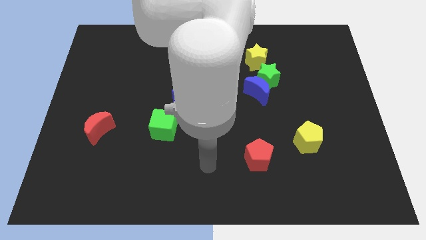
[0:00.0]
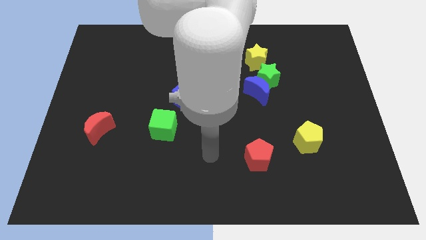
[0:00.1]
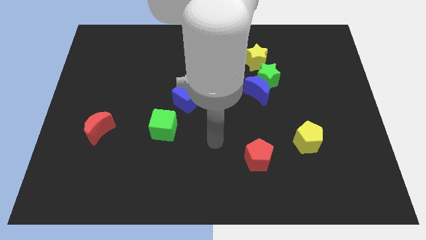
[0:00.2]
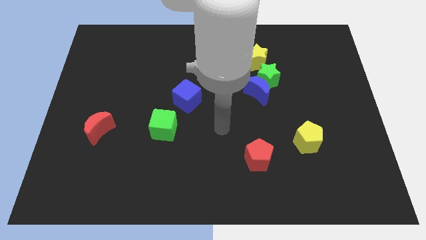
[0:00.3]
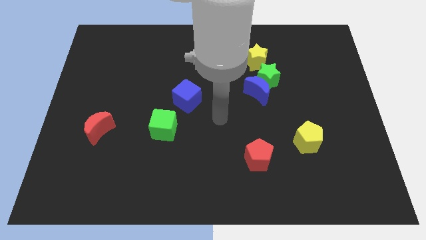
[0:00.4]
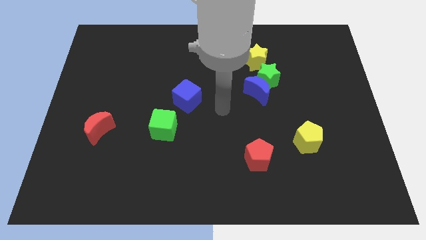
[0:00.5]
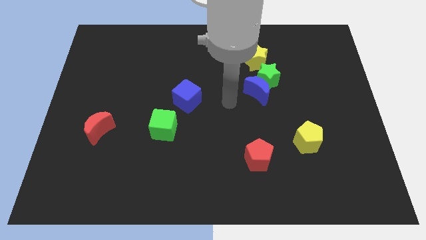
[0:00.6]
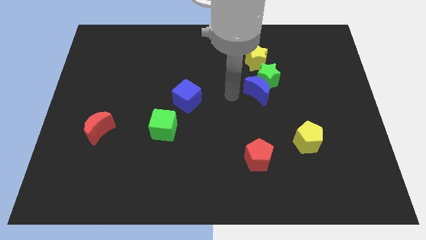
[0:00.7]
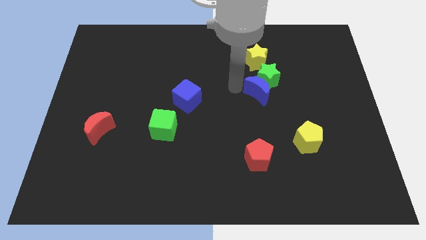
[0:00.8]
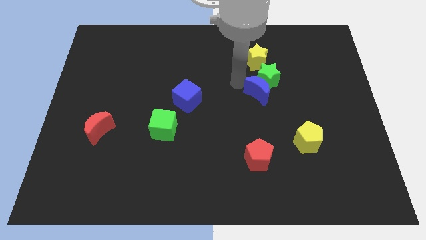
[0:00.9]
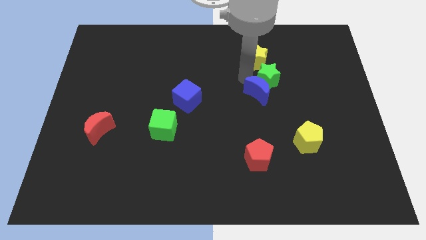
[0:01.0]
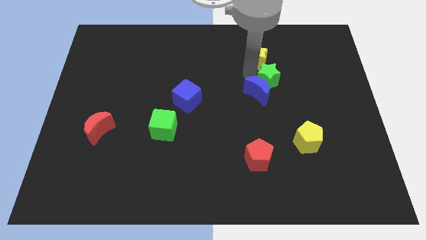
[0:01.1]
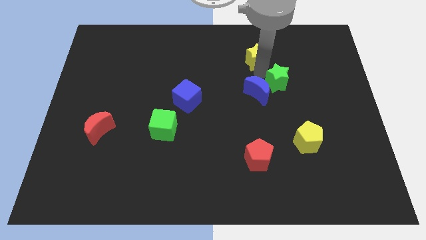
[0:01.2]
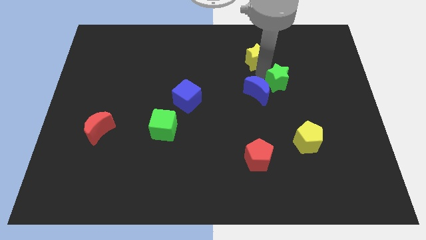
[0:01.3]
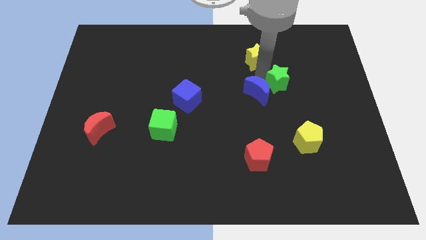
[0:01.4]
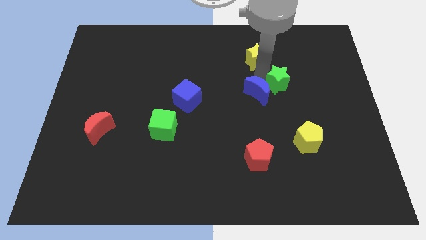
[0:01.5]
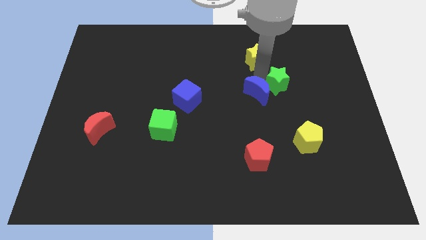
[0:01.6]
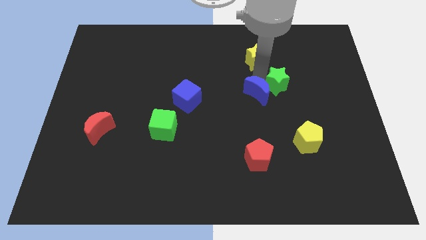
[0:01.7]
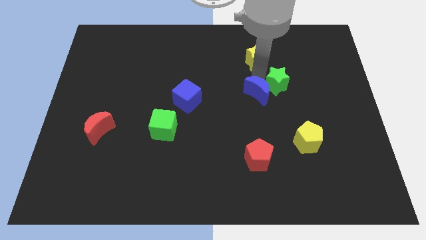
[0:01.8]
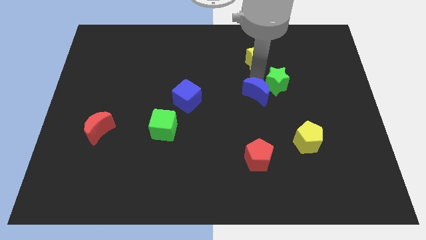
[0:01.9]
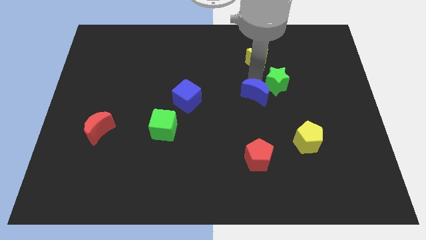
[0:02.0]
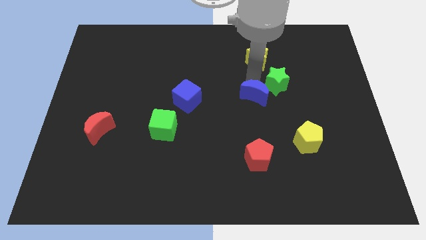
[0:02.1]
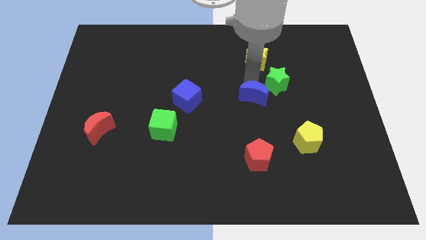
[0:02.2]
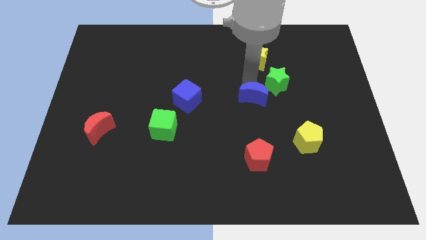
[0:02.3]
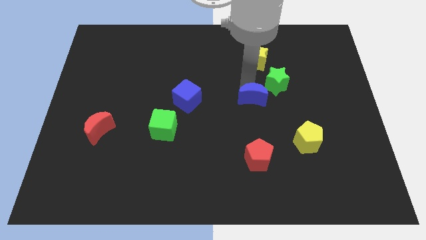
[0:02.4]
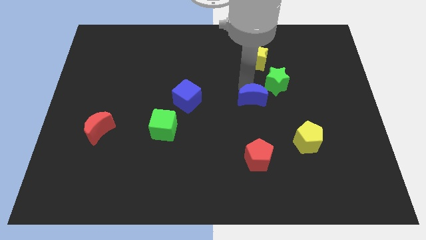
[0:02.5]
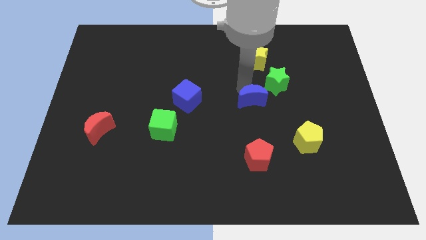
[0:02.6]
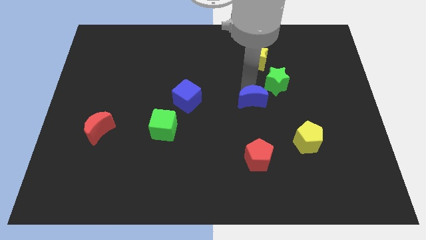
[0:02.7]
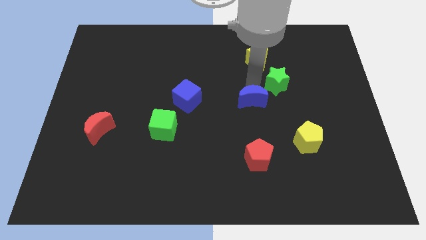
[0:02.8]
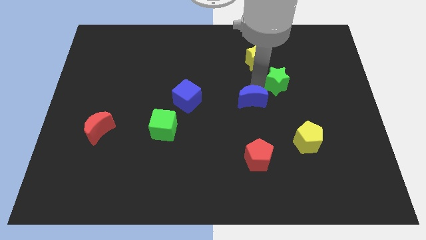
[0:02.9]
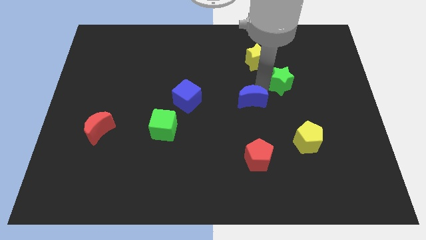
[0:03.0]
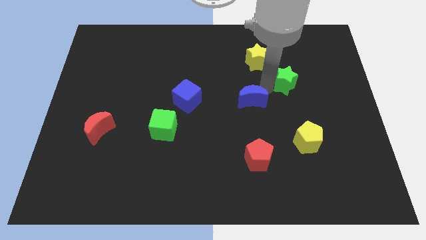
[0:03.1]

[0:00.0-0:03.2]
move the blue moon away from the green star

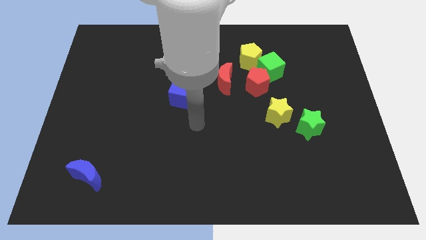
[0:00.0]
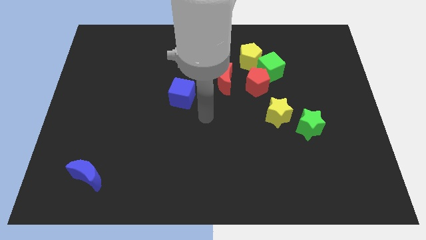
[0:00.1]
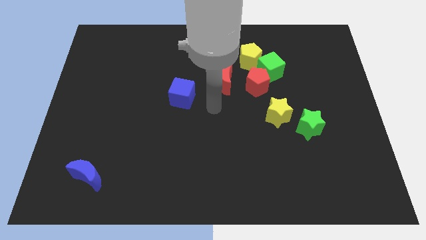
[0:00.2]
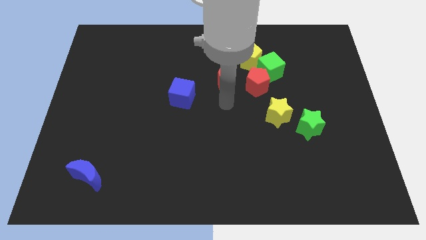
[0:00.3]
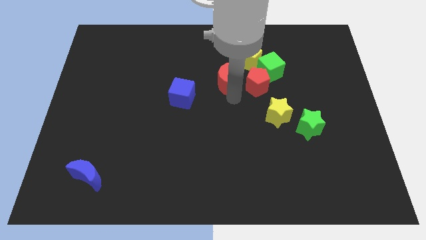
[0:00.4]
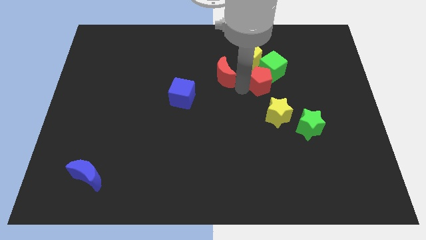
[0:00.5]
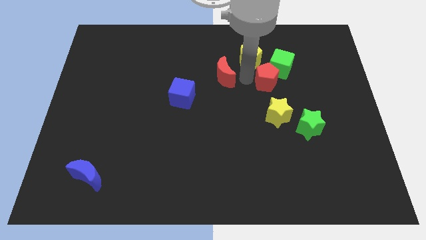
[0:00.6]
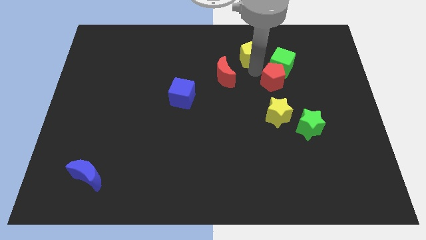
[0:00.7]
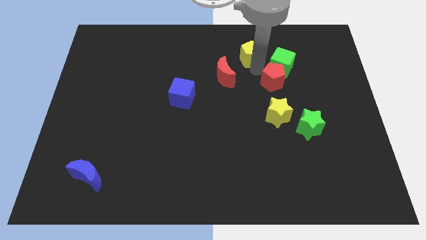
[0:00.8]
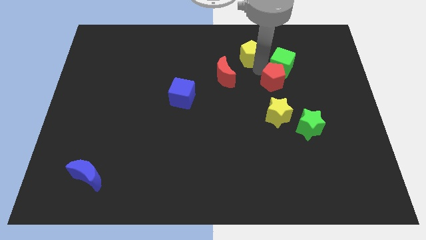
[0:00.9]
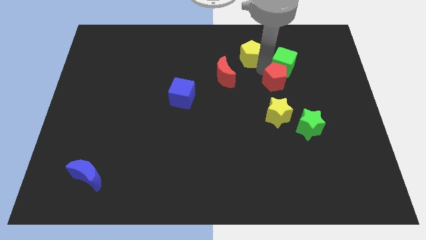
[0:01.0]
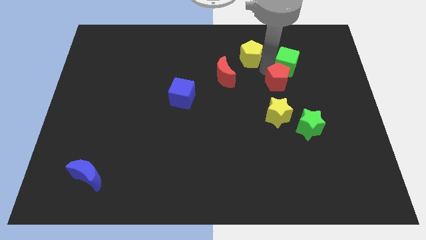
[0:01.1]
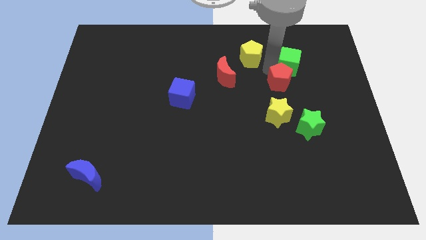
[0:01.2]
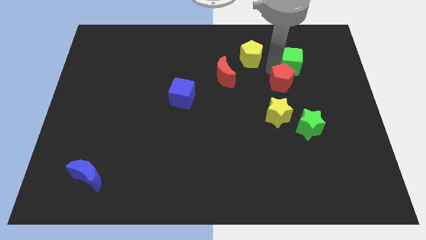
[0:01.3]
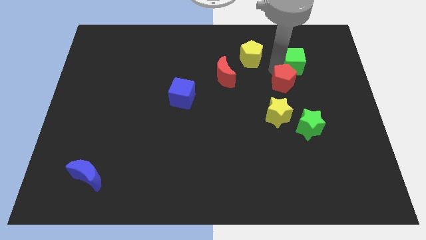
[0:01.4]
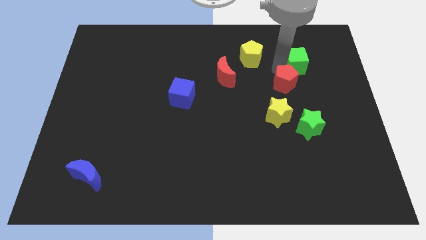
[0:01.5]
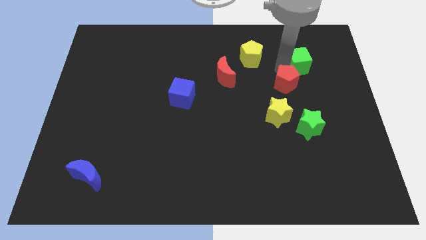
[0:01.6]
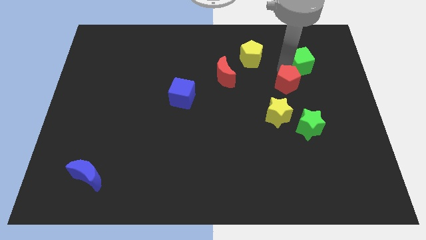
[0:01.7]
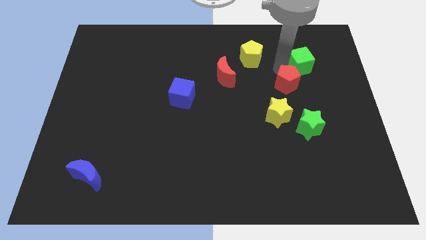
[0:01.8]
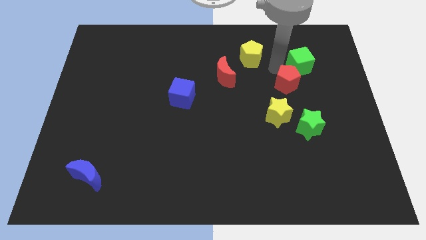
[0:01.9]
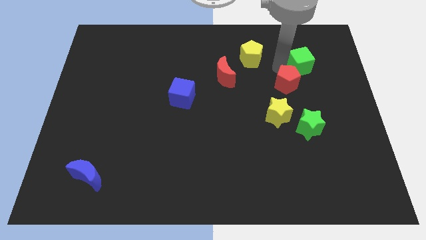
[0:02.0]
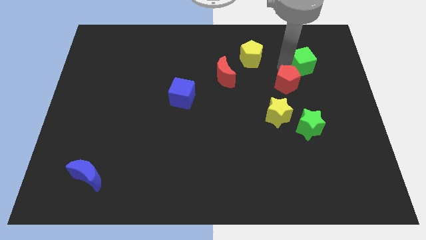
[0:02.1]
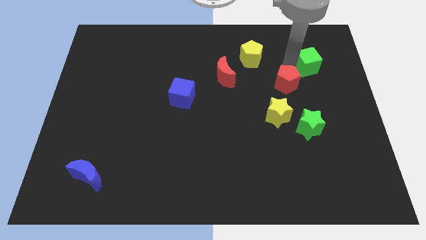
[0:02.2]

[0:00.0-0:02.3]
move the green cube away from the red pentagon and yellow pentagon

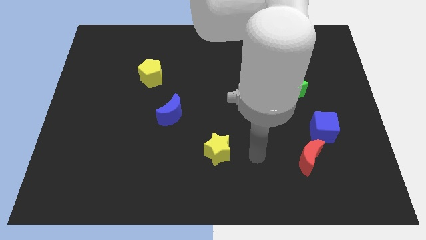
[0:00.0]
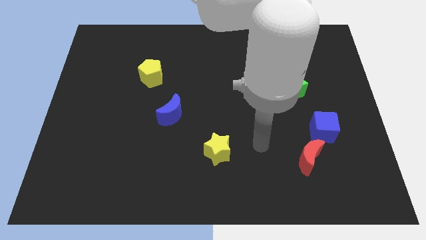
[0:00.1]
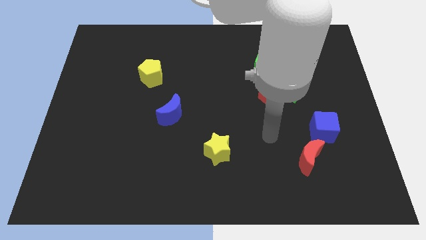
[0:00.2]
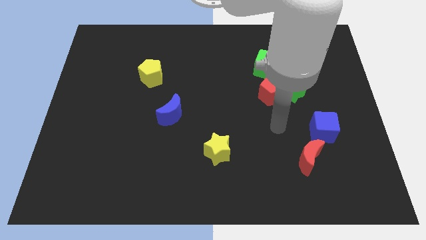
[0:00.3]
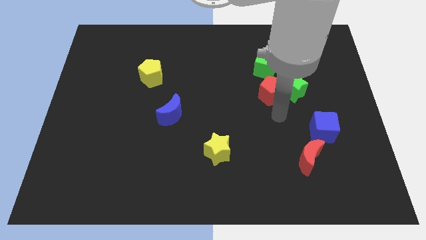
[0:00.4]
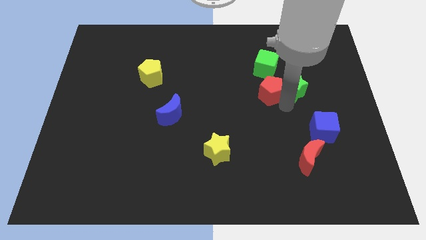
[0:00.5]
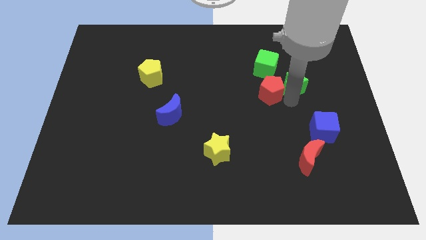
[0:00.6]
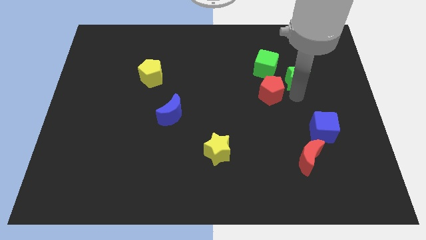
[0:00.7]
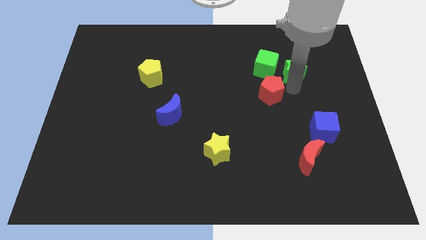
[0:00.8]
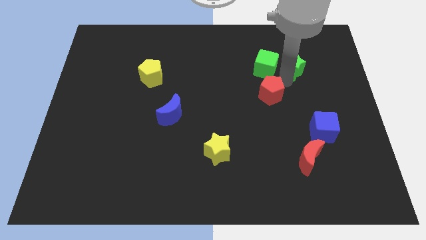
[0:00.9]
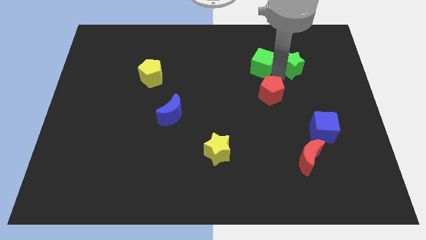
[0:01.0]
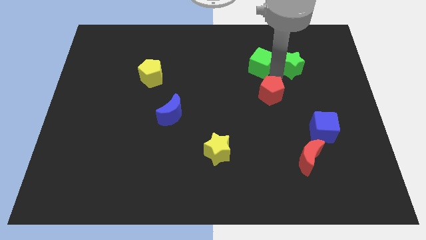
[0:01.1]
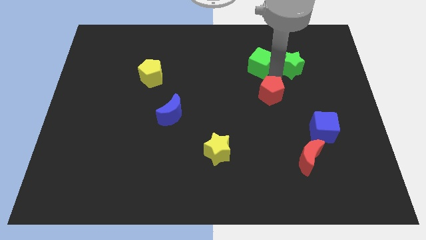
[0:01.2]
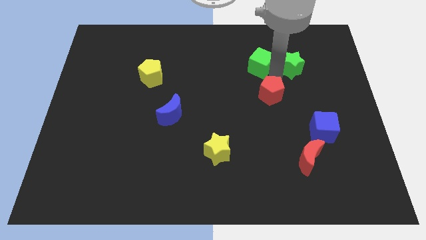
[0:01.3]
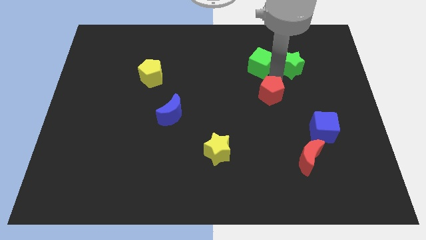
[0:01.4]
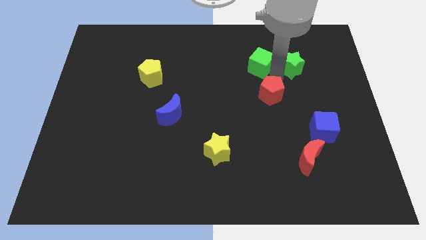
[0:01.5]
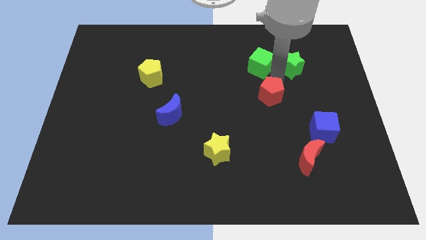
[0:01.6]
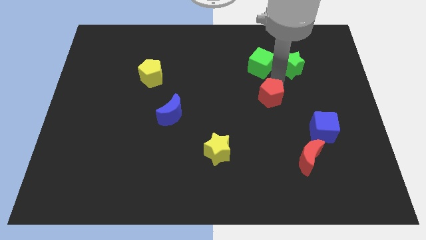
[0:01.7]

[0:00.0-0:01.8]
move the red pentagon away from the green star and green cube

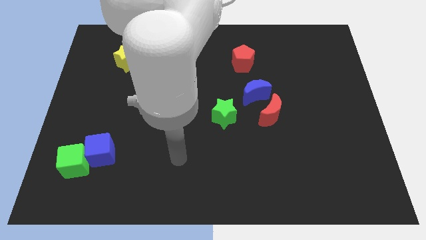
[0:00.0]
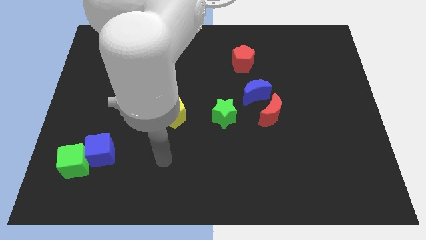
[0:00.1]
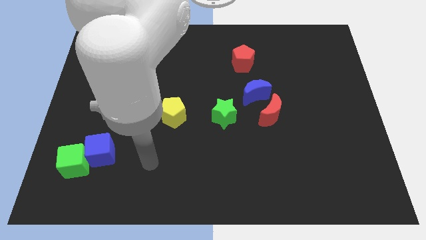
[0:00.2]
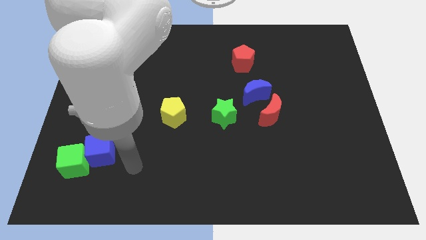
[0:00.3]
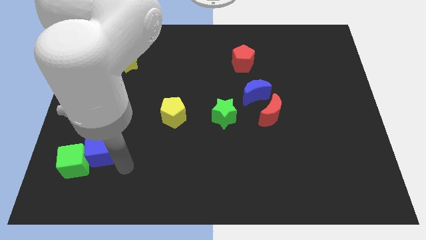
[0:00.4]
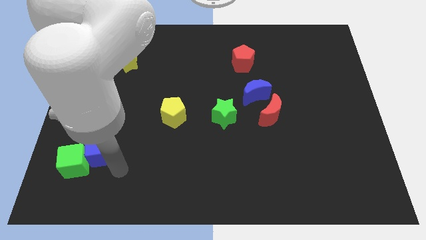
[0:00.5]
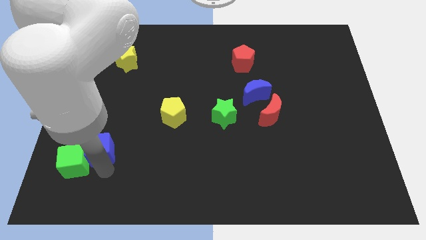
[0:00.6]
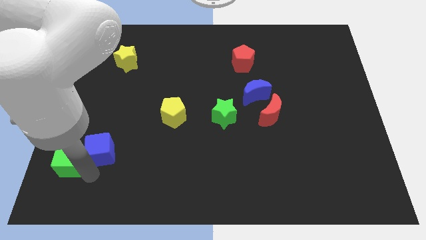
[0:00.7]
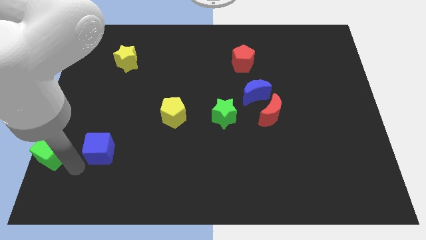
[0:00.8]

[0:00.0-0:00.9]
move the blue cube away from the green cube

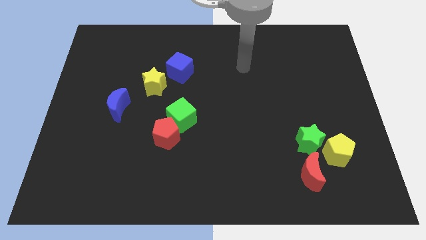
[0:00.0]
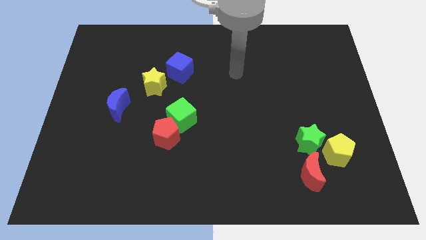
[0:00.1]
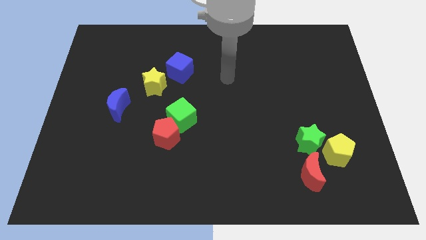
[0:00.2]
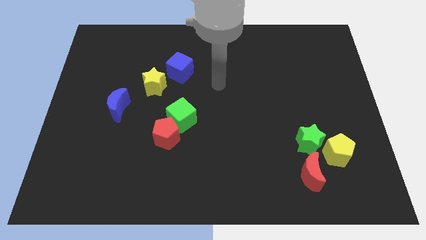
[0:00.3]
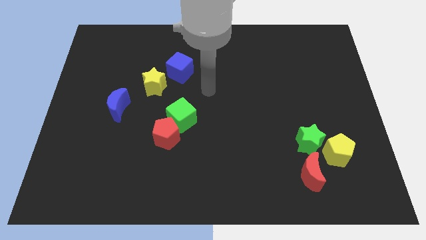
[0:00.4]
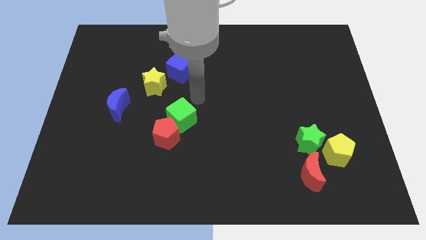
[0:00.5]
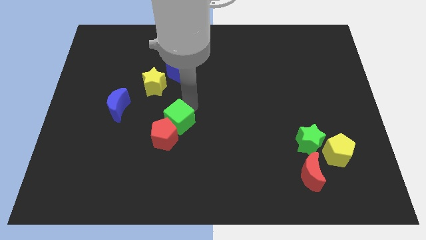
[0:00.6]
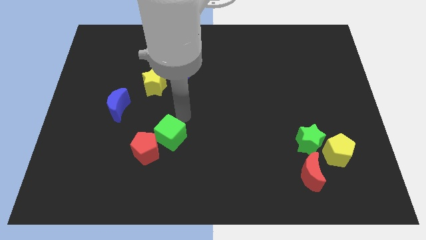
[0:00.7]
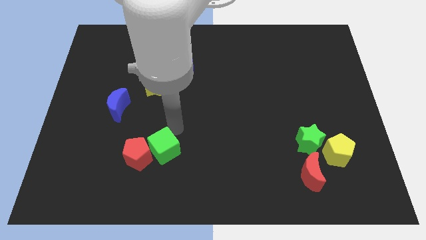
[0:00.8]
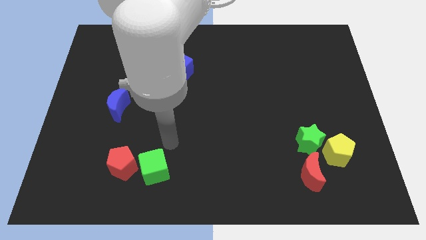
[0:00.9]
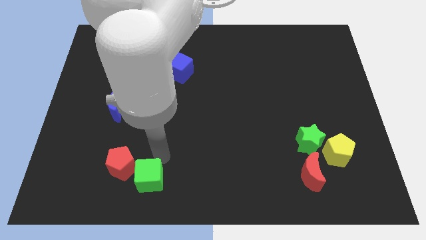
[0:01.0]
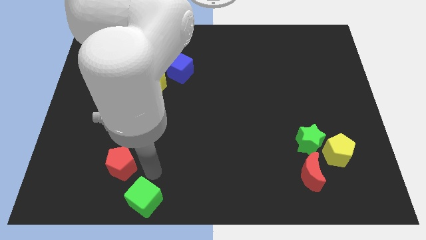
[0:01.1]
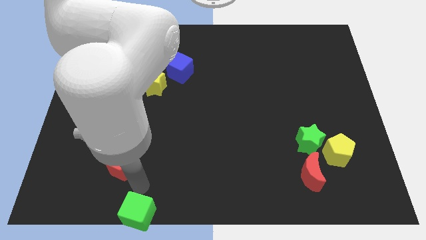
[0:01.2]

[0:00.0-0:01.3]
separate the red pentagon from the green cube
